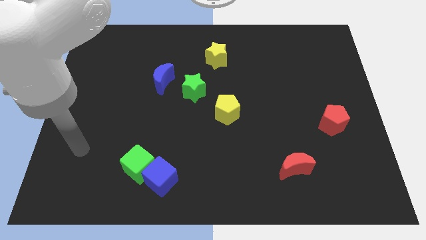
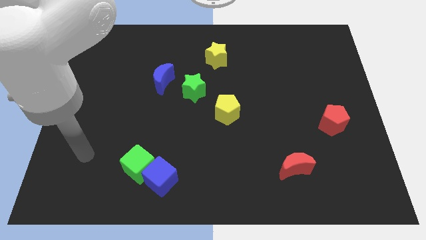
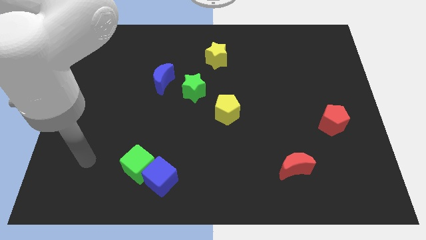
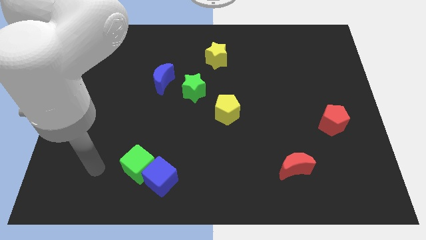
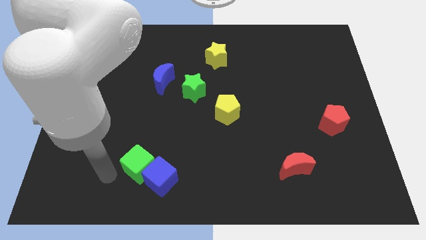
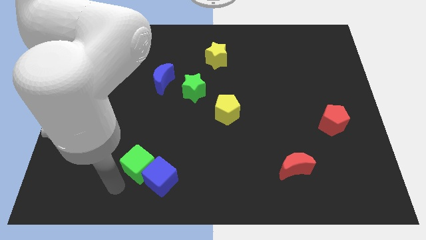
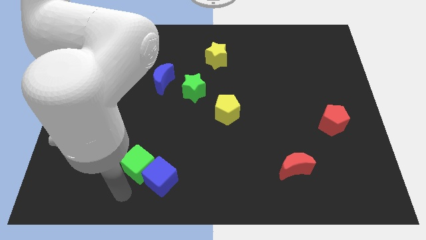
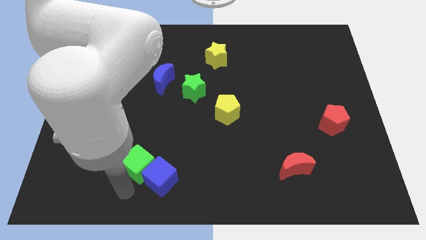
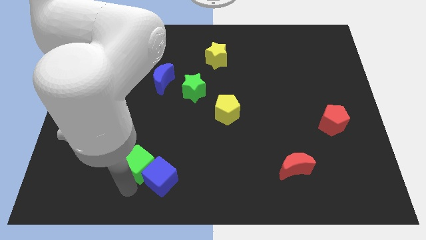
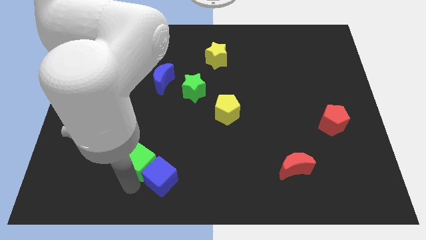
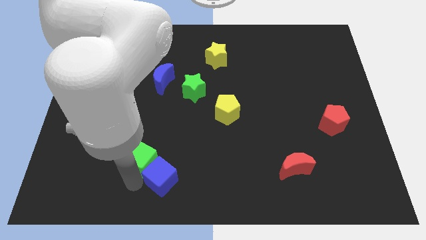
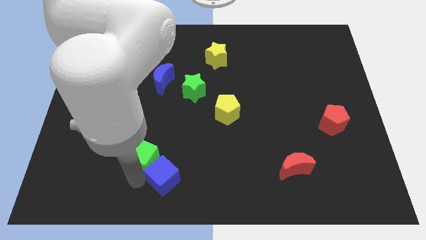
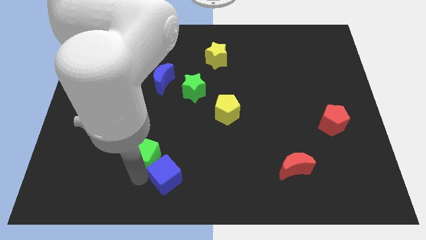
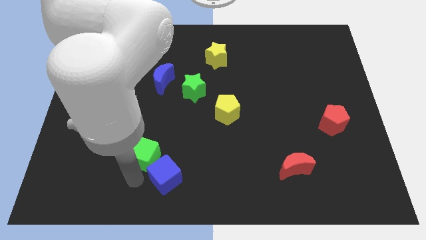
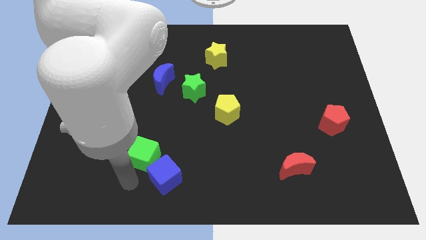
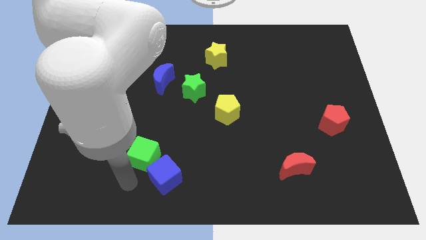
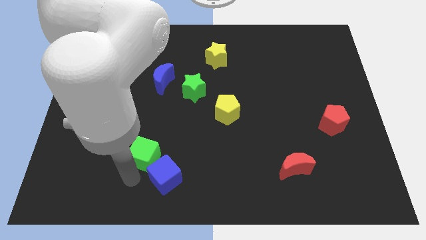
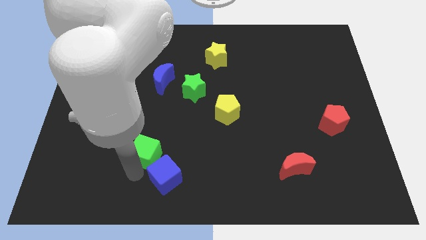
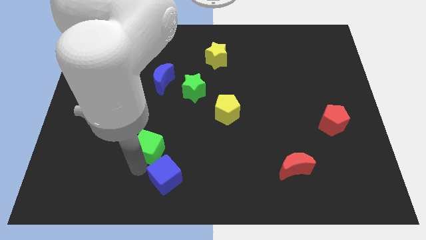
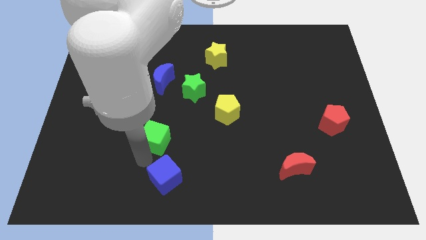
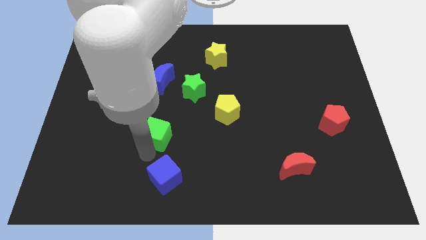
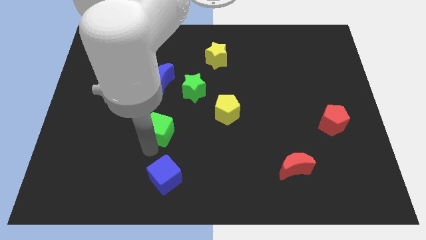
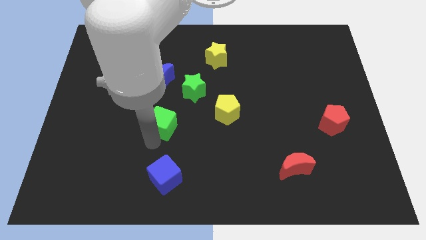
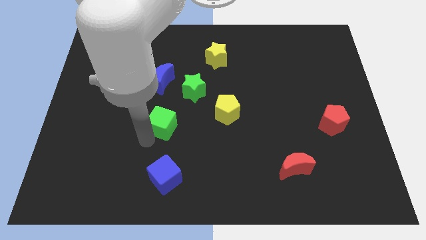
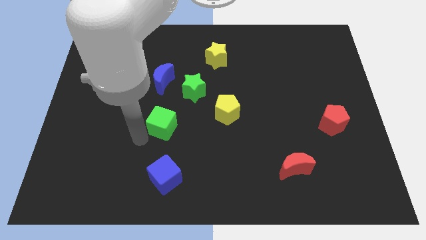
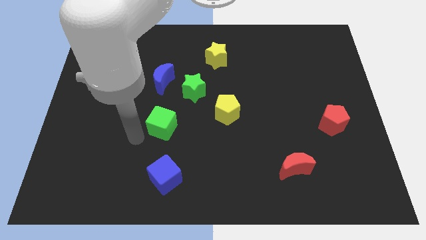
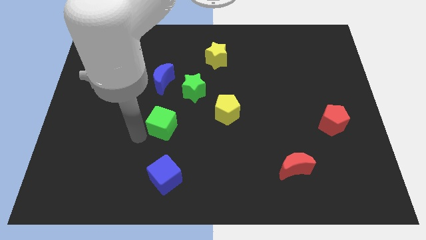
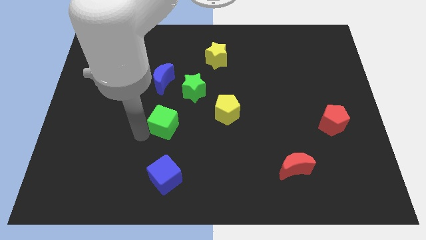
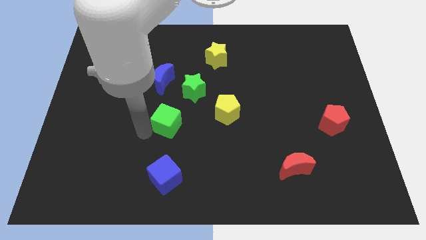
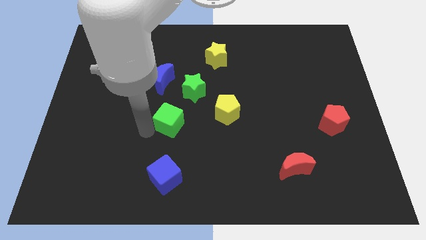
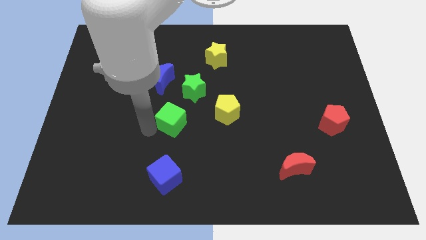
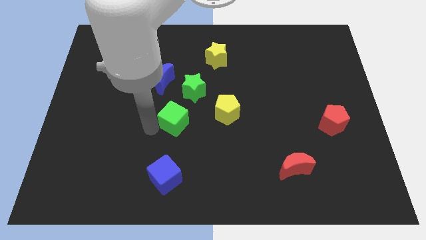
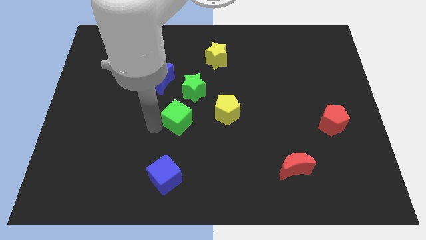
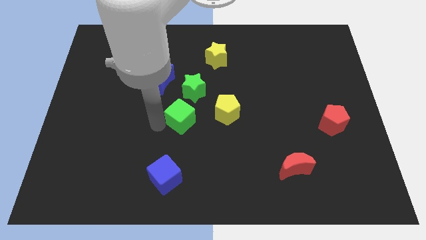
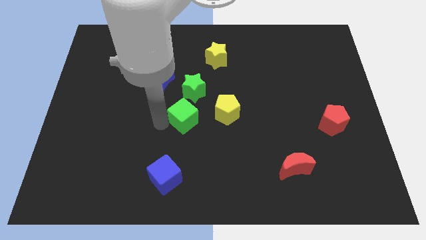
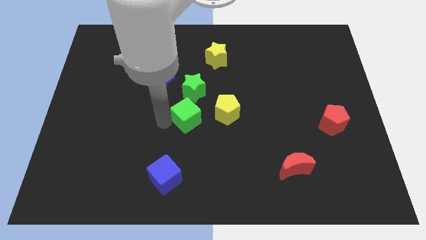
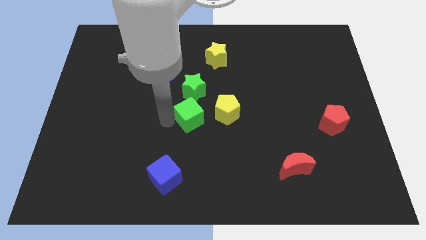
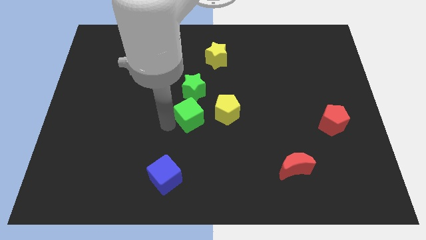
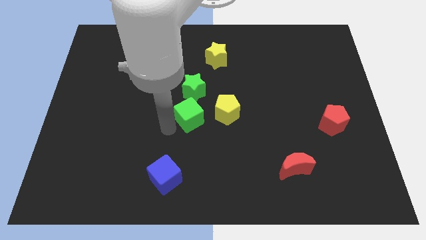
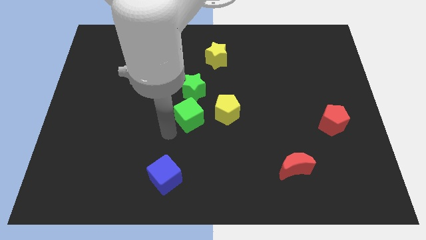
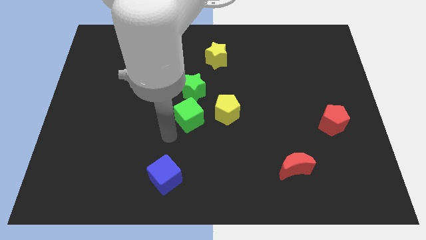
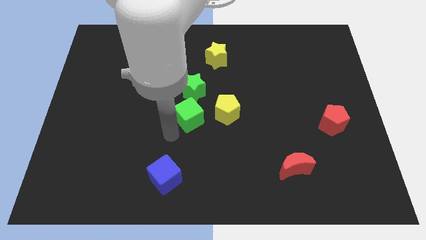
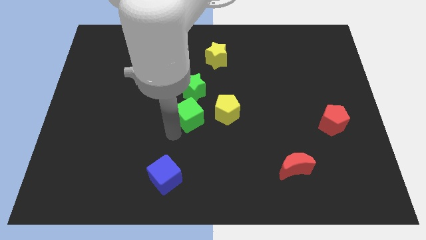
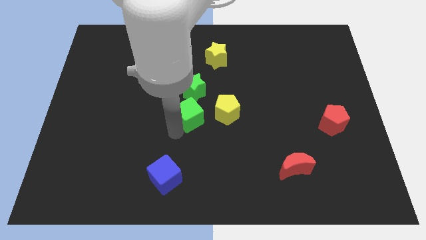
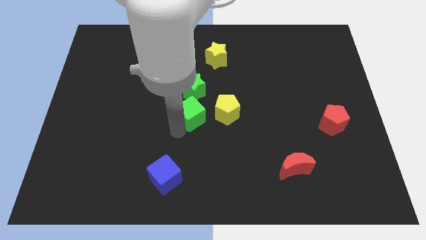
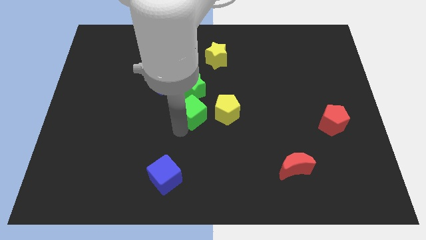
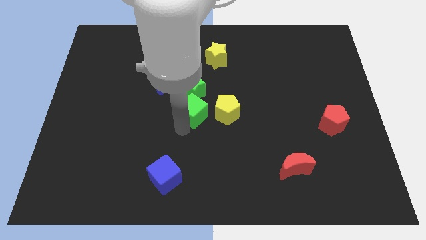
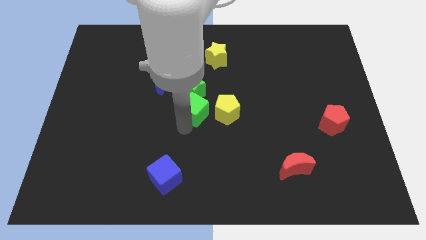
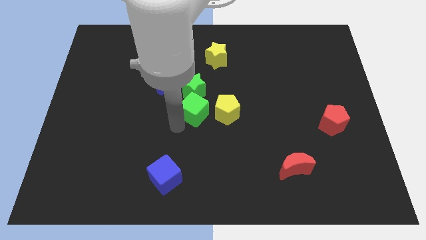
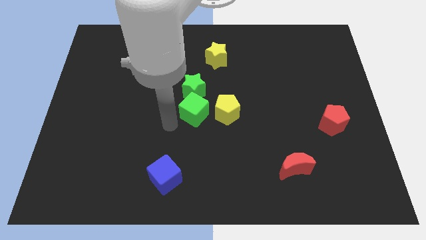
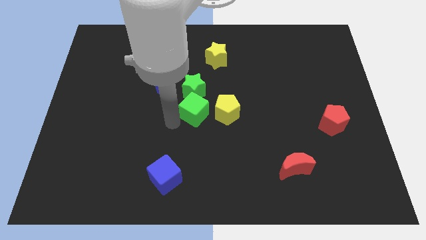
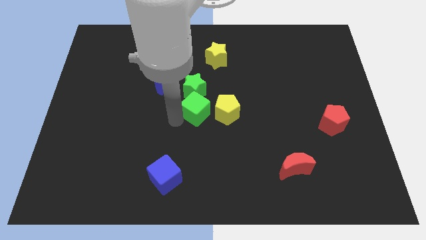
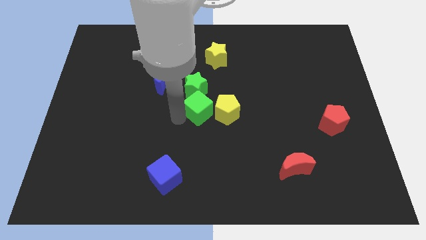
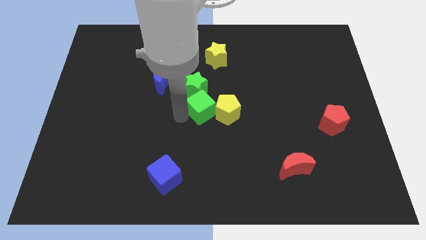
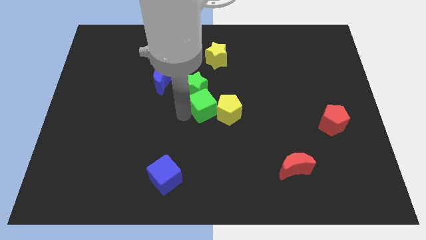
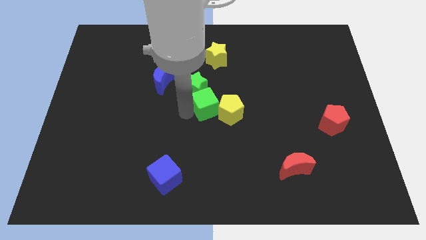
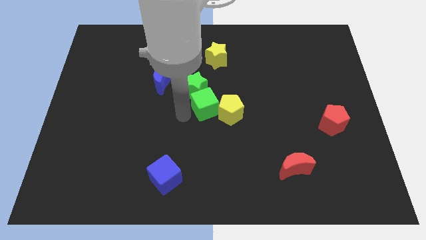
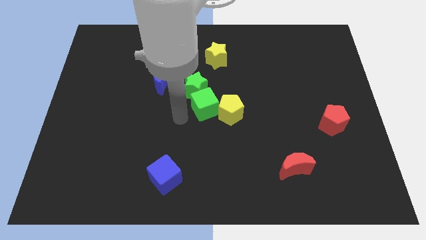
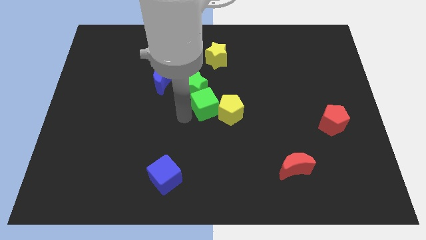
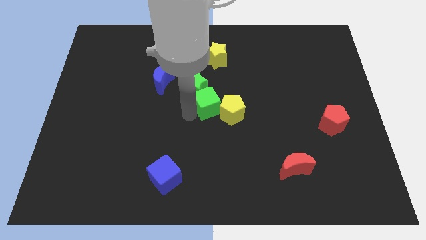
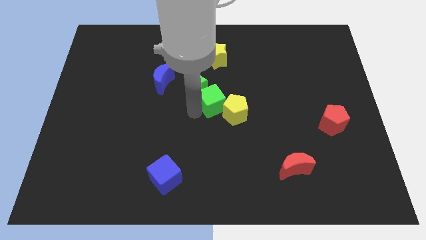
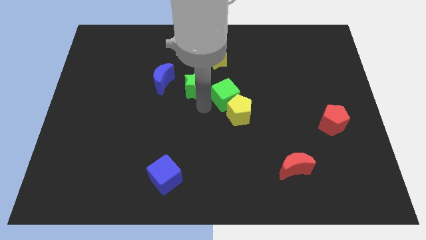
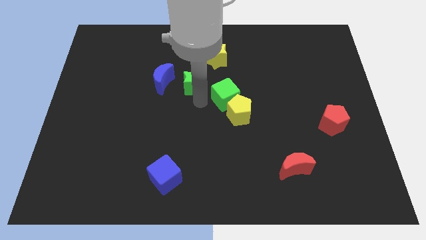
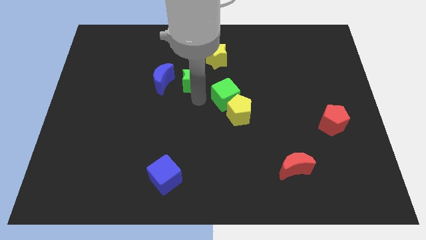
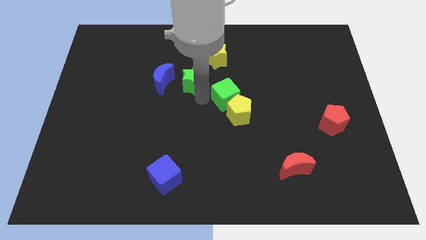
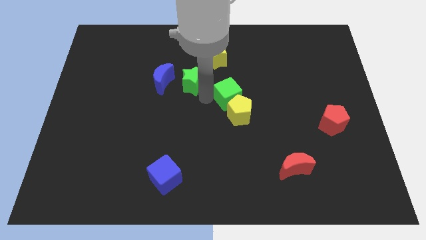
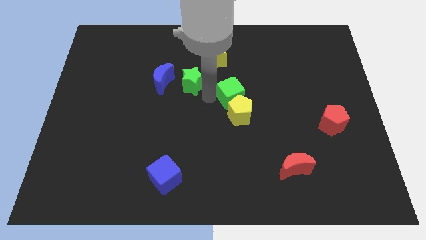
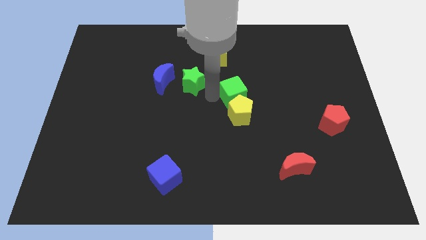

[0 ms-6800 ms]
slide the green cube to the top right side of the yellow pentagon
